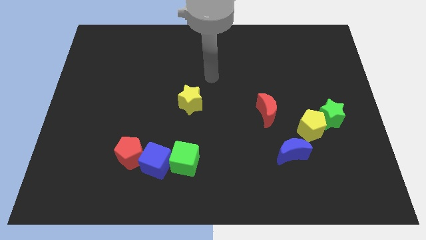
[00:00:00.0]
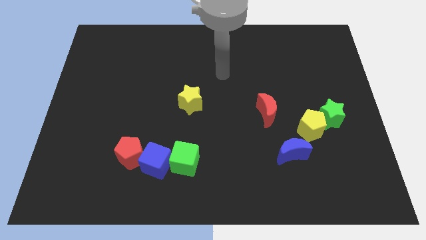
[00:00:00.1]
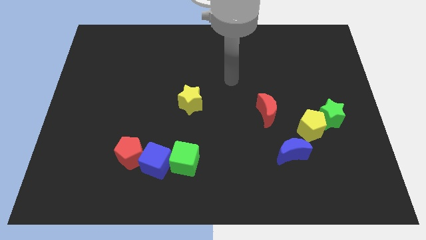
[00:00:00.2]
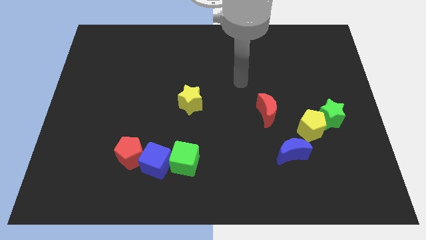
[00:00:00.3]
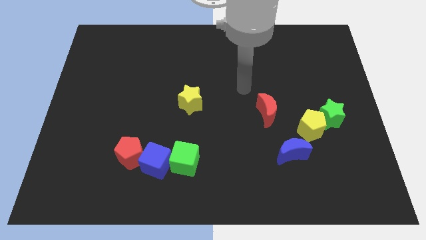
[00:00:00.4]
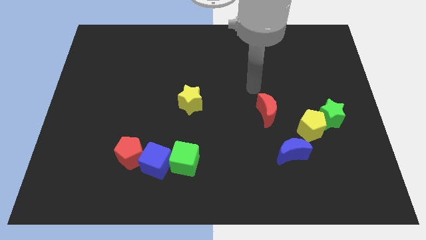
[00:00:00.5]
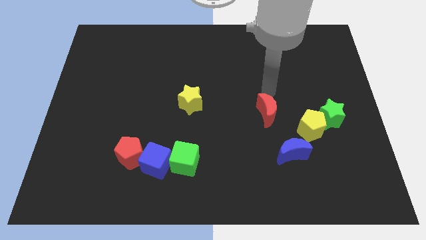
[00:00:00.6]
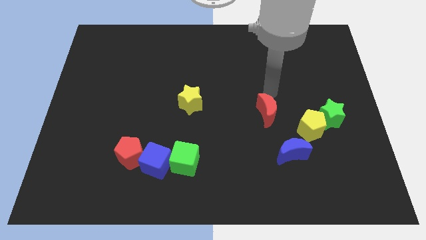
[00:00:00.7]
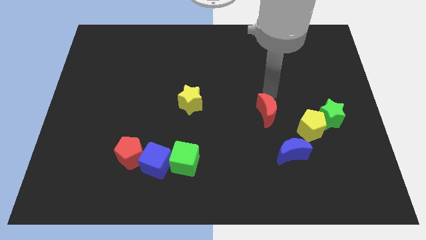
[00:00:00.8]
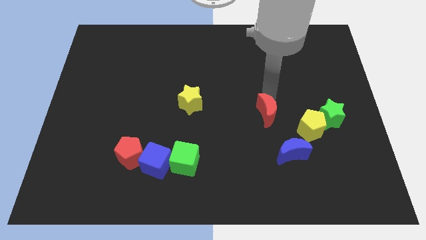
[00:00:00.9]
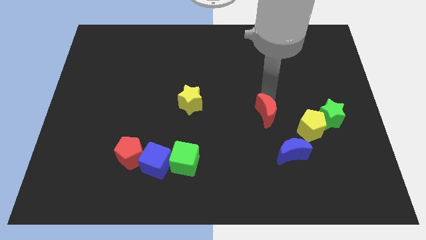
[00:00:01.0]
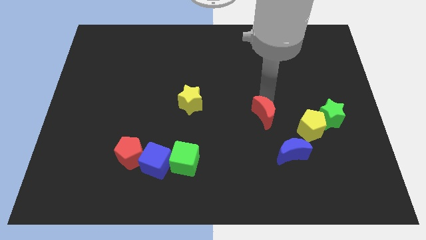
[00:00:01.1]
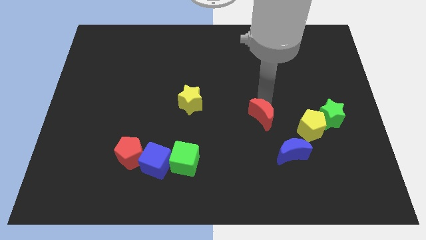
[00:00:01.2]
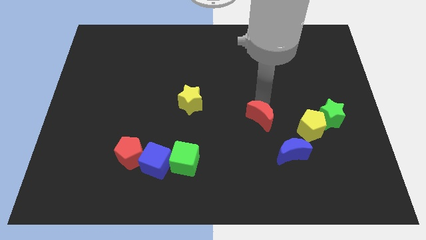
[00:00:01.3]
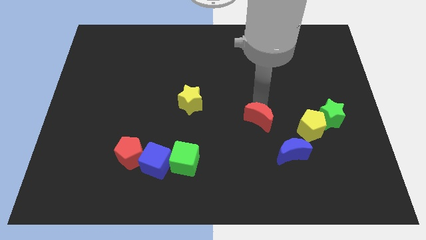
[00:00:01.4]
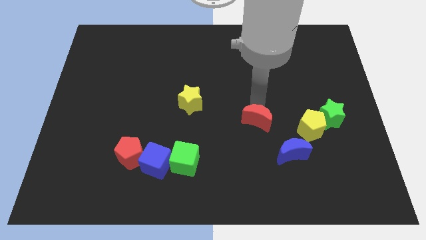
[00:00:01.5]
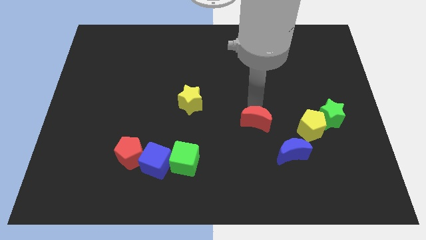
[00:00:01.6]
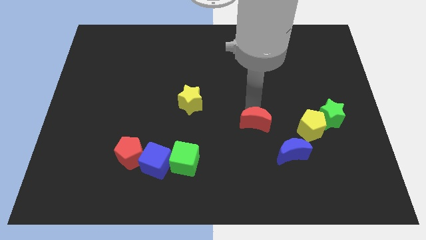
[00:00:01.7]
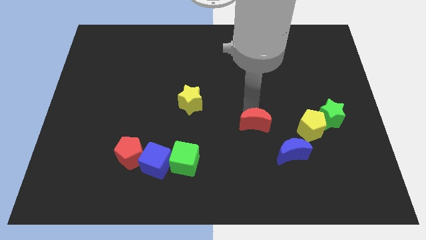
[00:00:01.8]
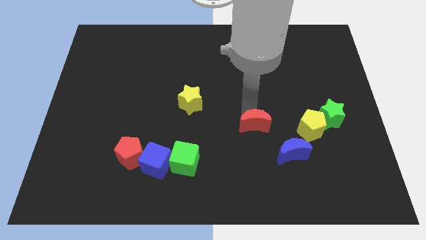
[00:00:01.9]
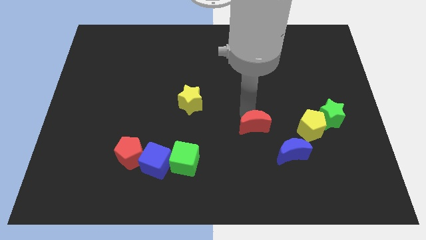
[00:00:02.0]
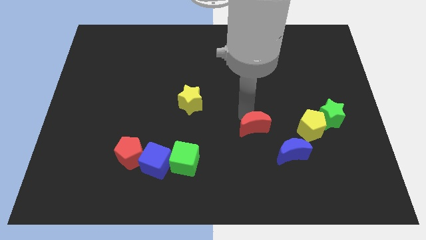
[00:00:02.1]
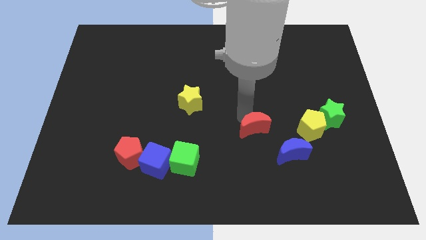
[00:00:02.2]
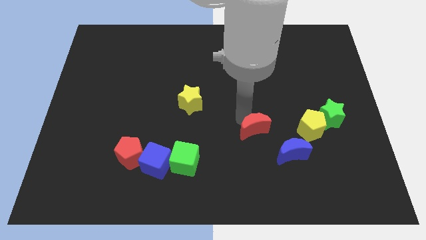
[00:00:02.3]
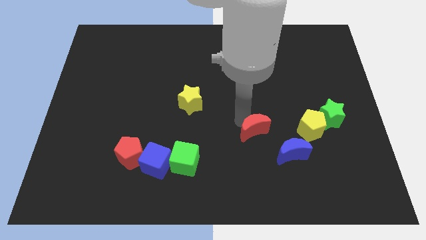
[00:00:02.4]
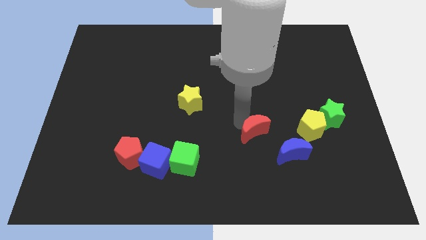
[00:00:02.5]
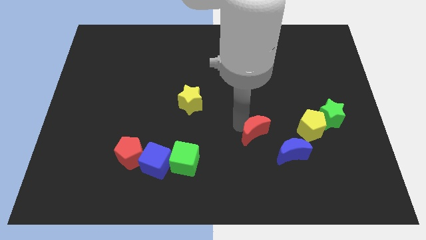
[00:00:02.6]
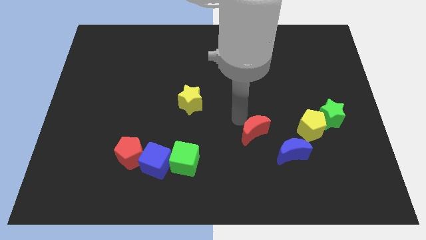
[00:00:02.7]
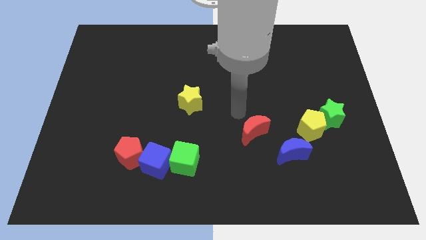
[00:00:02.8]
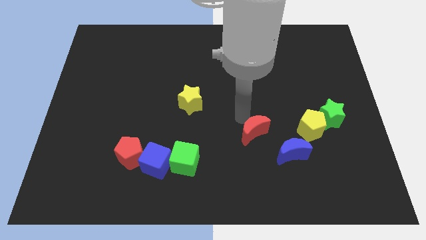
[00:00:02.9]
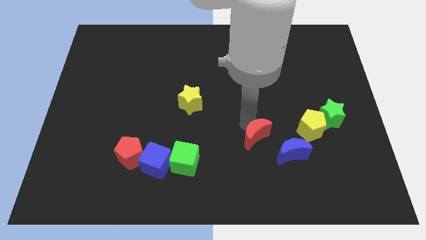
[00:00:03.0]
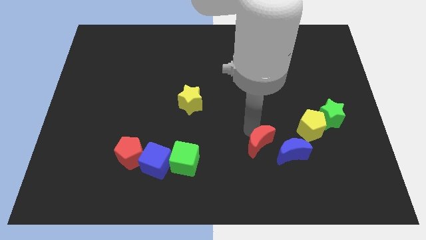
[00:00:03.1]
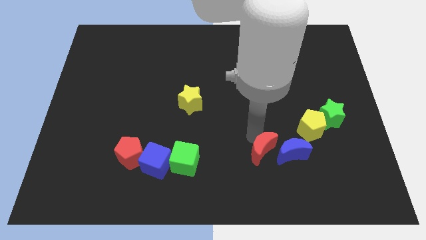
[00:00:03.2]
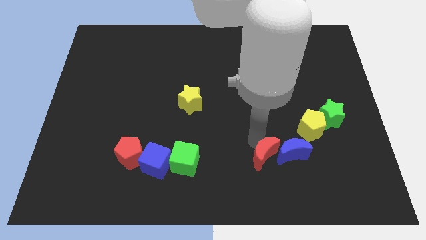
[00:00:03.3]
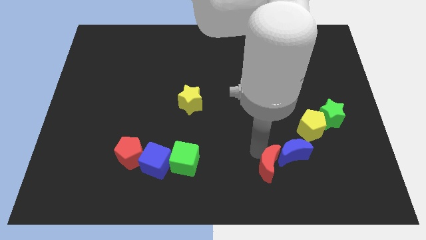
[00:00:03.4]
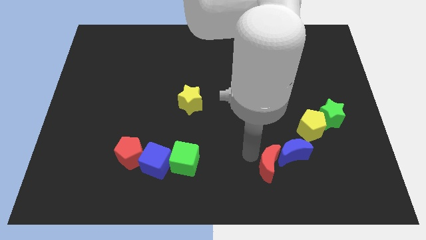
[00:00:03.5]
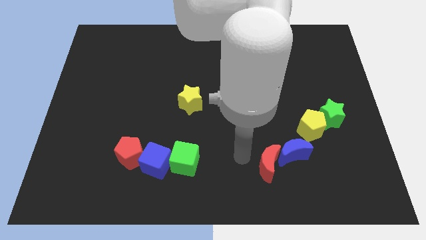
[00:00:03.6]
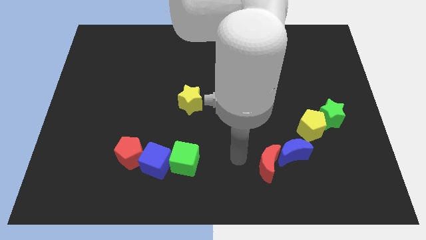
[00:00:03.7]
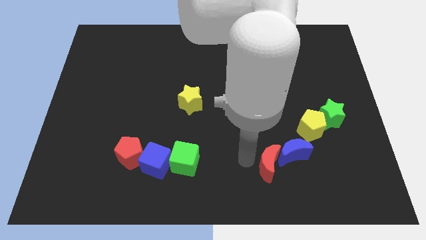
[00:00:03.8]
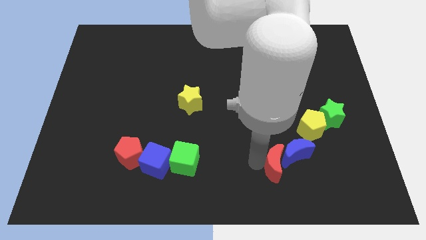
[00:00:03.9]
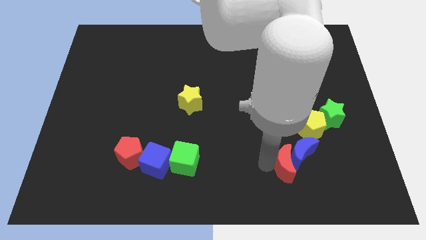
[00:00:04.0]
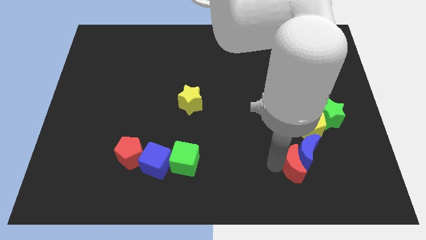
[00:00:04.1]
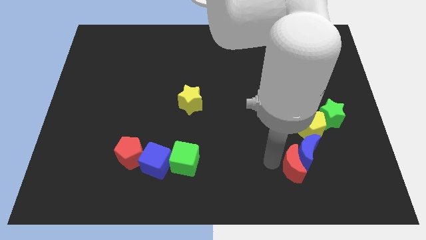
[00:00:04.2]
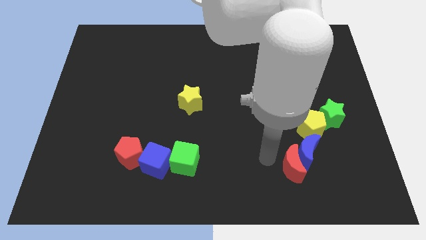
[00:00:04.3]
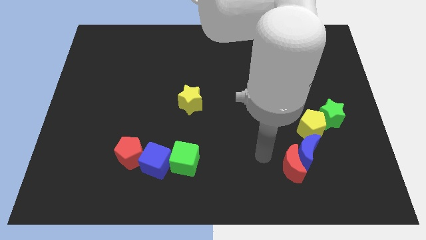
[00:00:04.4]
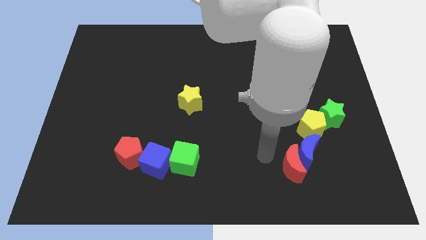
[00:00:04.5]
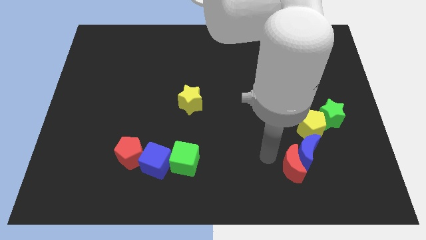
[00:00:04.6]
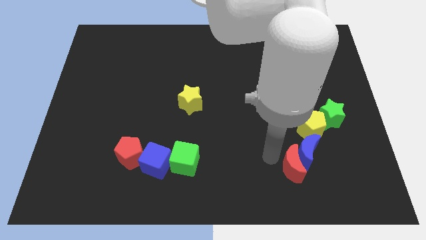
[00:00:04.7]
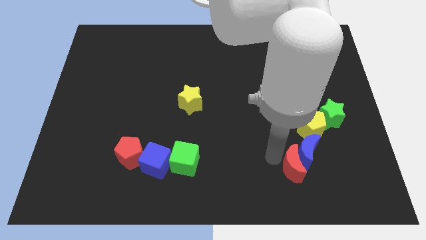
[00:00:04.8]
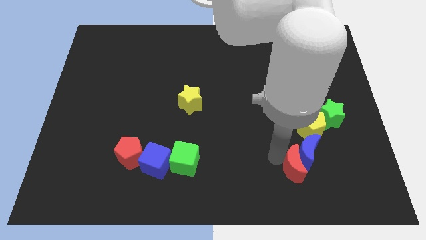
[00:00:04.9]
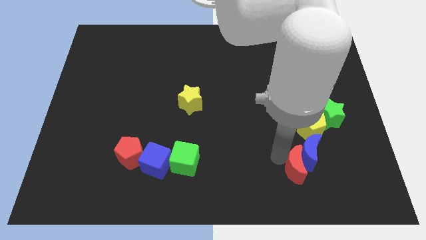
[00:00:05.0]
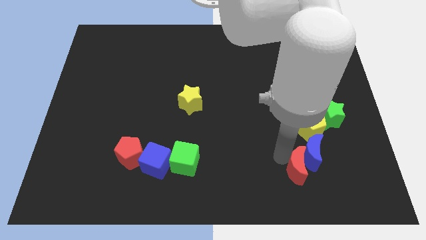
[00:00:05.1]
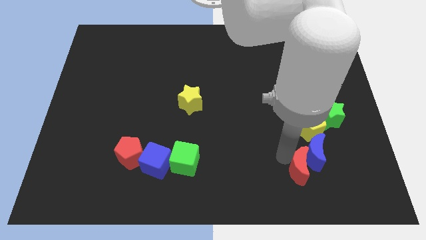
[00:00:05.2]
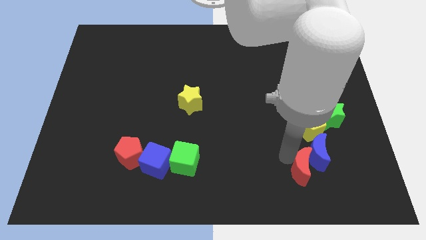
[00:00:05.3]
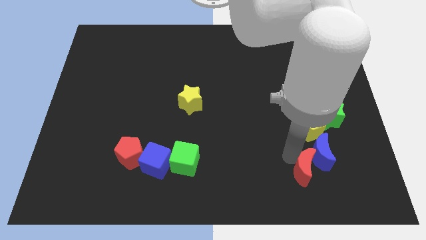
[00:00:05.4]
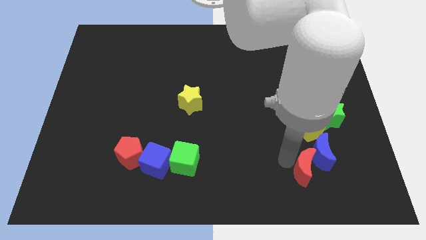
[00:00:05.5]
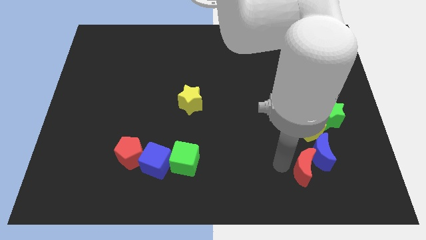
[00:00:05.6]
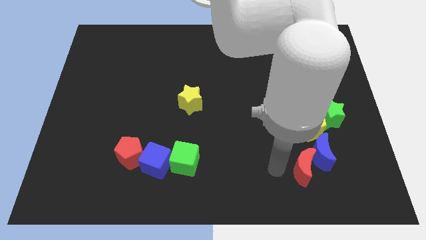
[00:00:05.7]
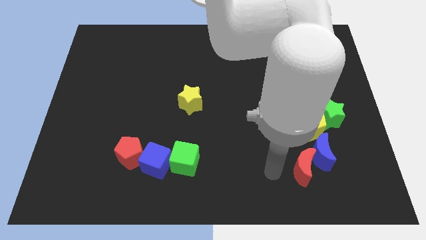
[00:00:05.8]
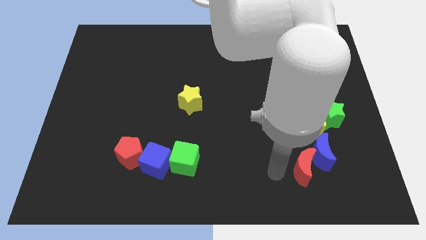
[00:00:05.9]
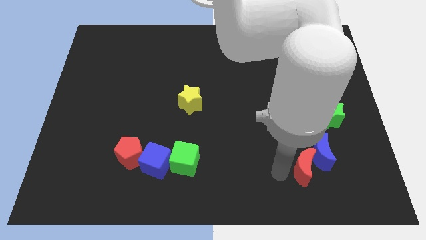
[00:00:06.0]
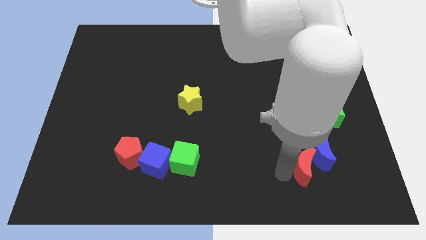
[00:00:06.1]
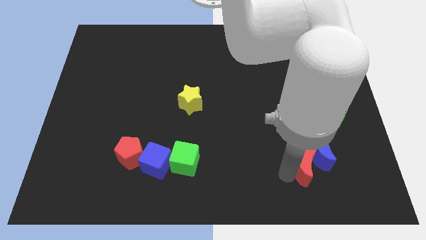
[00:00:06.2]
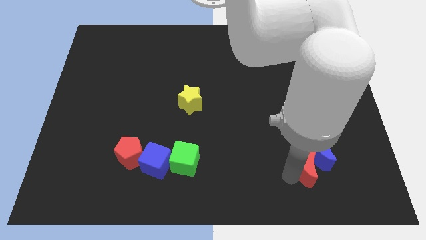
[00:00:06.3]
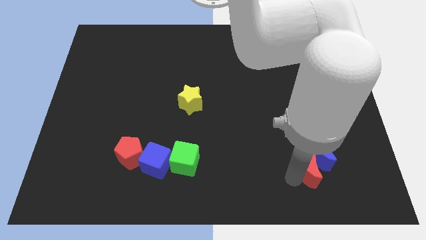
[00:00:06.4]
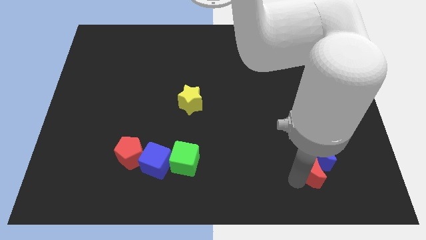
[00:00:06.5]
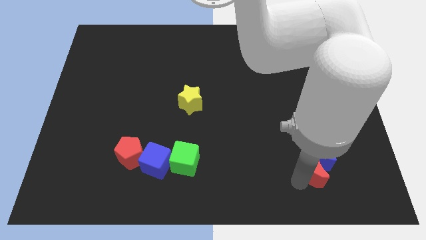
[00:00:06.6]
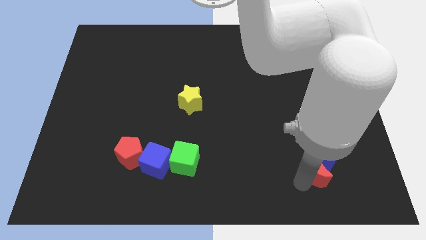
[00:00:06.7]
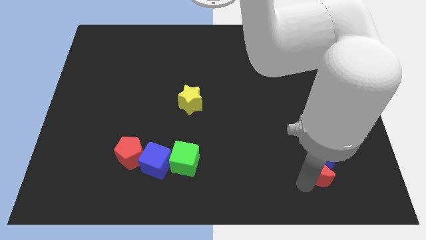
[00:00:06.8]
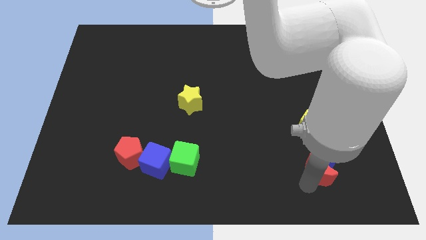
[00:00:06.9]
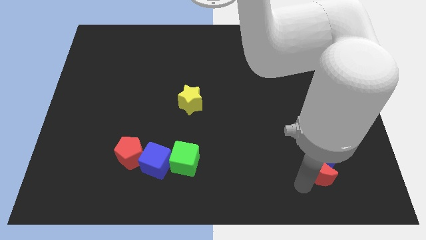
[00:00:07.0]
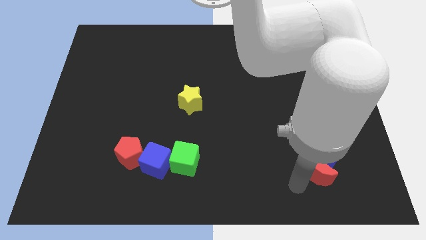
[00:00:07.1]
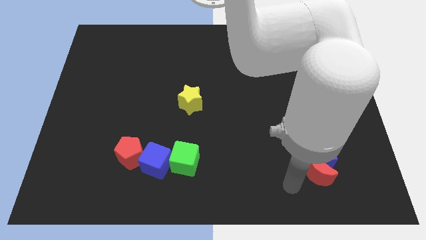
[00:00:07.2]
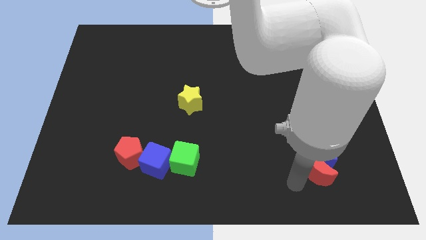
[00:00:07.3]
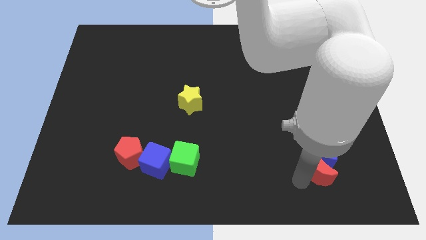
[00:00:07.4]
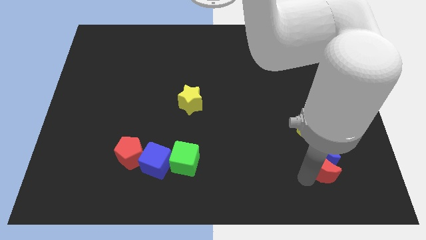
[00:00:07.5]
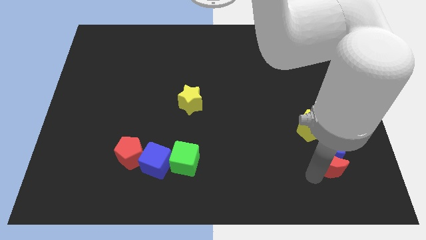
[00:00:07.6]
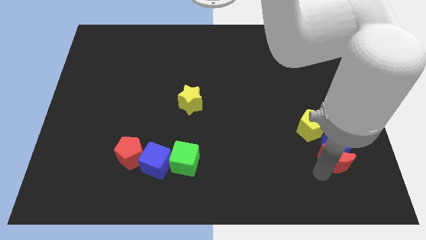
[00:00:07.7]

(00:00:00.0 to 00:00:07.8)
slide the red moon to the bottom right of the yellow pentagon
